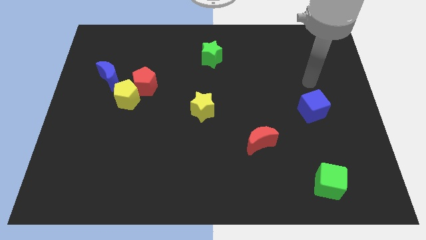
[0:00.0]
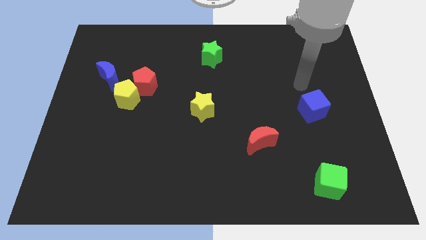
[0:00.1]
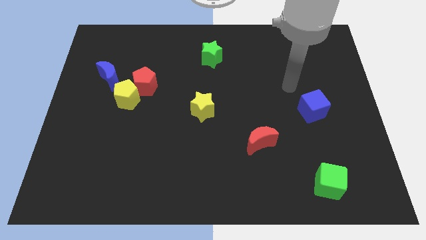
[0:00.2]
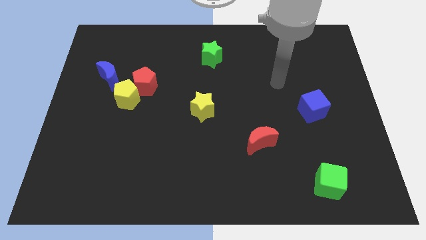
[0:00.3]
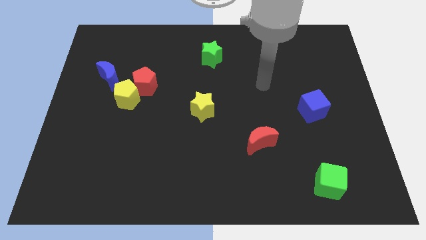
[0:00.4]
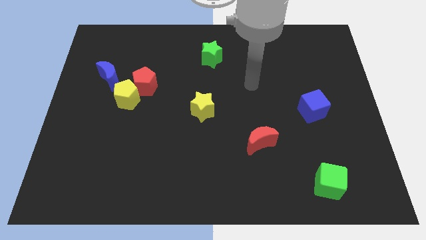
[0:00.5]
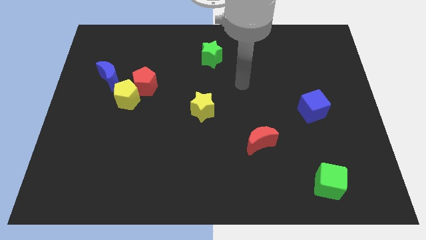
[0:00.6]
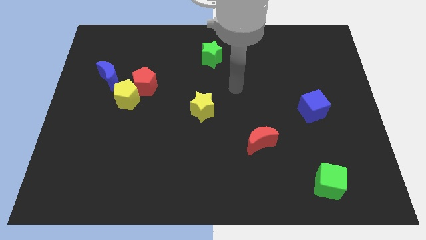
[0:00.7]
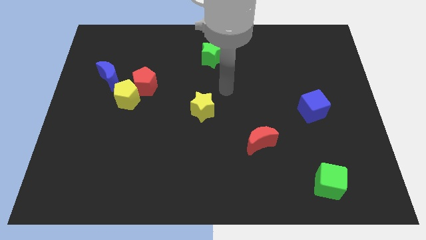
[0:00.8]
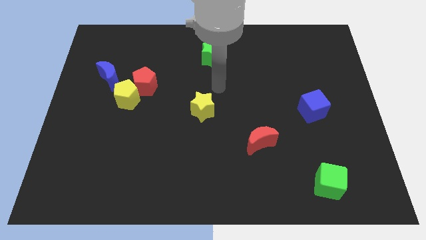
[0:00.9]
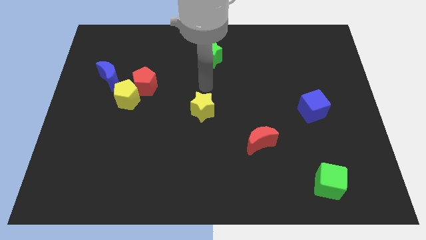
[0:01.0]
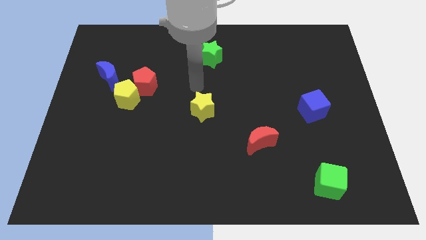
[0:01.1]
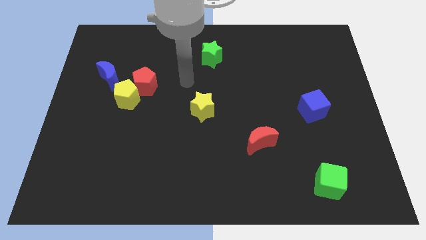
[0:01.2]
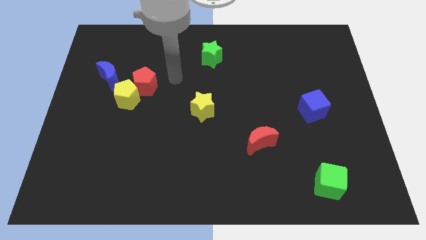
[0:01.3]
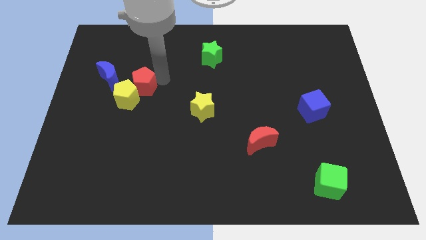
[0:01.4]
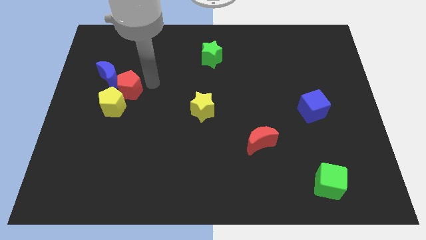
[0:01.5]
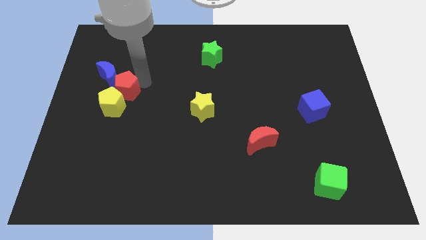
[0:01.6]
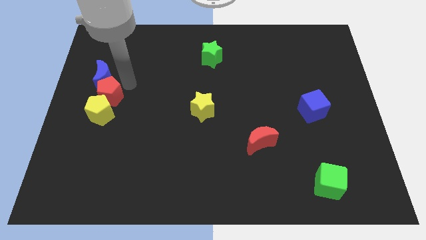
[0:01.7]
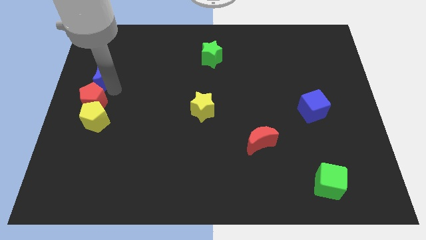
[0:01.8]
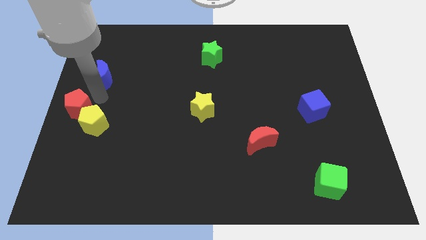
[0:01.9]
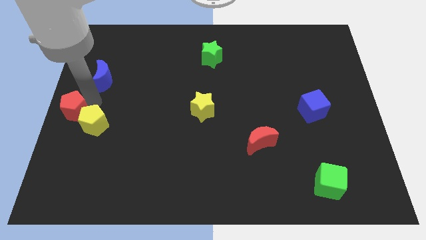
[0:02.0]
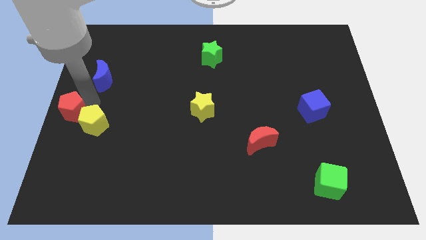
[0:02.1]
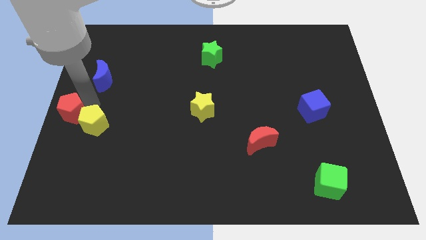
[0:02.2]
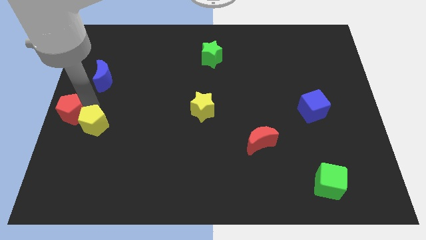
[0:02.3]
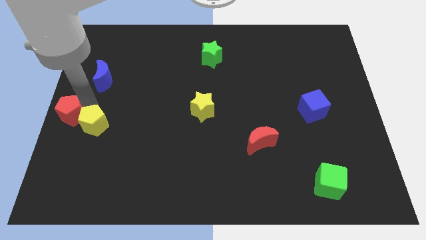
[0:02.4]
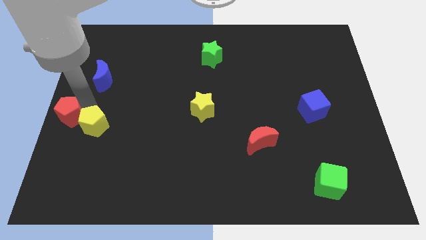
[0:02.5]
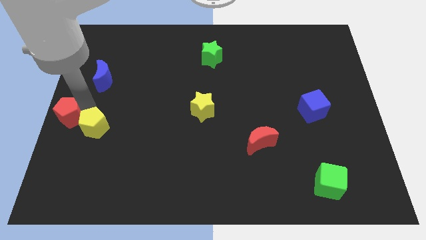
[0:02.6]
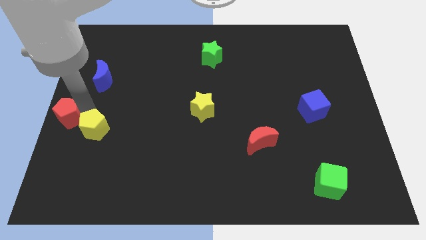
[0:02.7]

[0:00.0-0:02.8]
separate the yellow pentagon from the red pentagon and blue moon

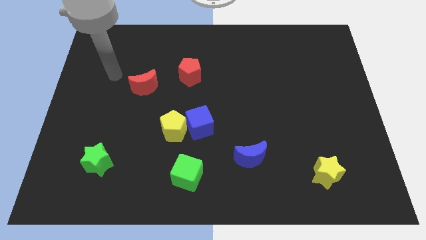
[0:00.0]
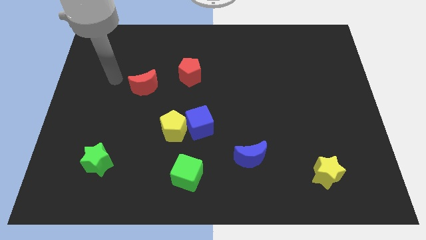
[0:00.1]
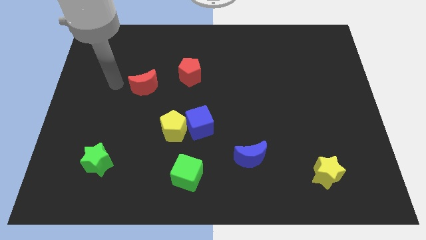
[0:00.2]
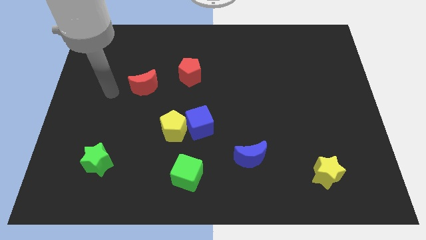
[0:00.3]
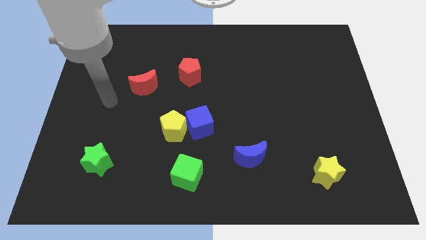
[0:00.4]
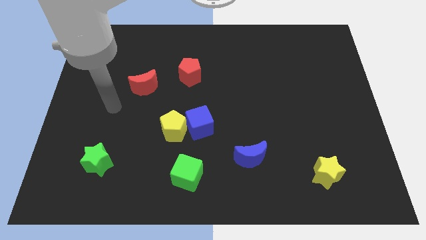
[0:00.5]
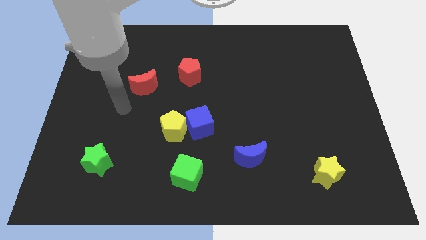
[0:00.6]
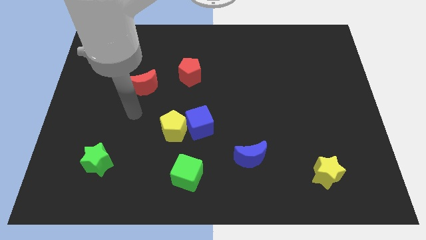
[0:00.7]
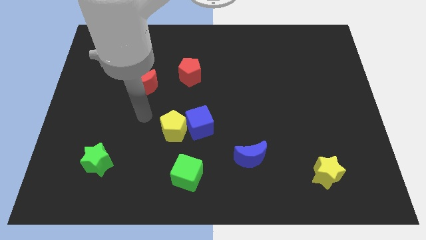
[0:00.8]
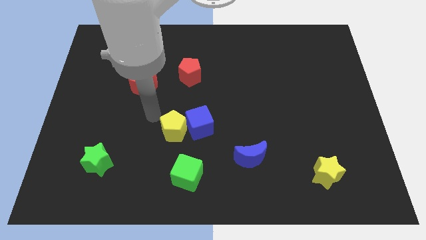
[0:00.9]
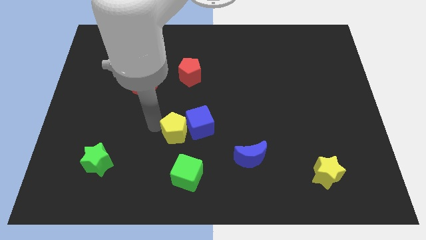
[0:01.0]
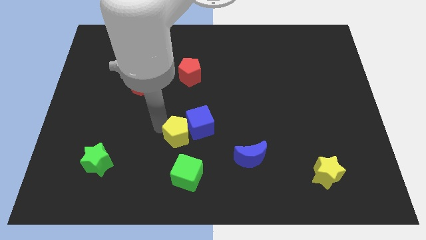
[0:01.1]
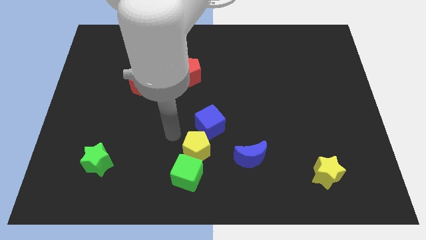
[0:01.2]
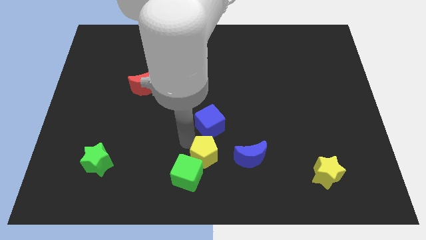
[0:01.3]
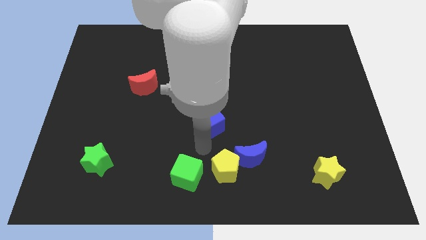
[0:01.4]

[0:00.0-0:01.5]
move the blue cube away from the yellow pentagon

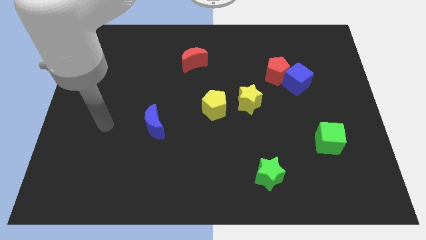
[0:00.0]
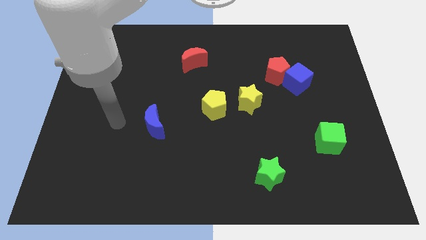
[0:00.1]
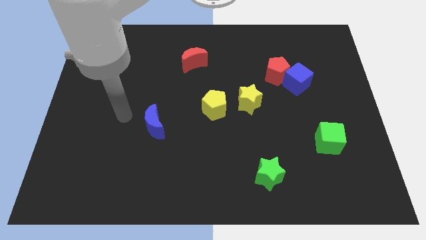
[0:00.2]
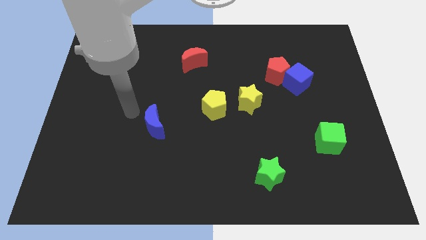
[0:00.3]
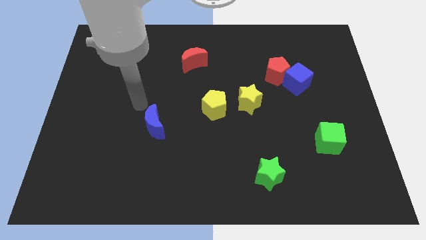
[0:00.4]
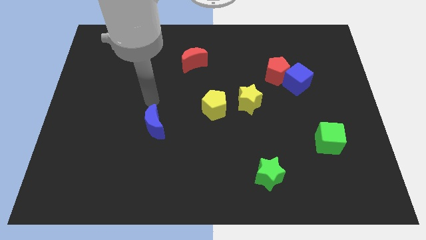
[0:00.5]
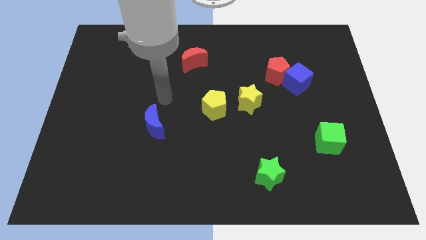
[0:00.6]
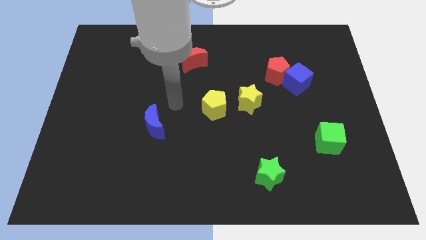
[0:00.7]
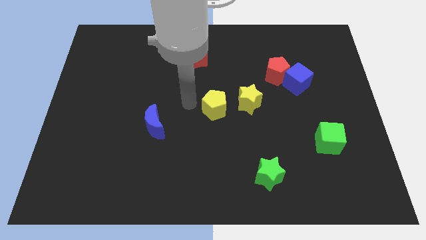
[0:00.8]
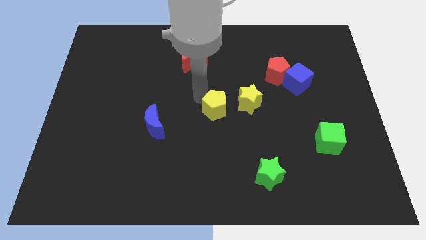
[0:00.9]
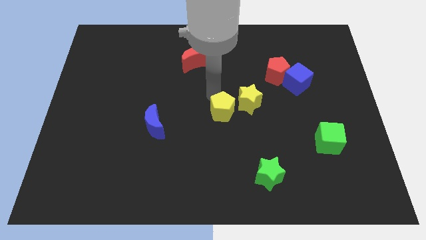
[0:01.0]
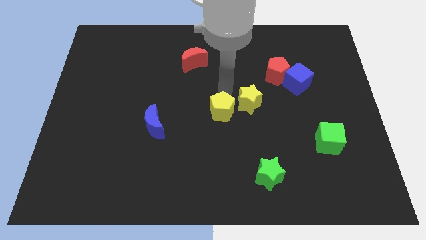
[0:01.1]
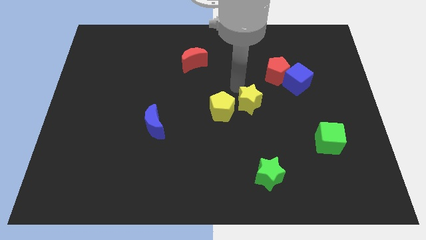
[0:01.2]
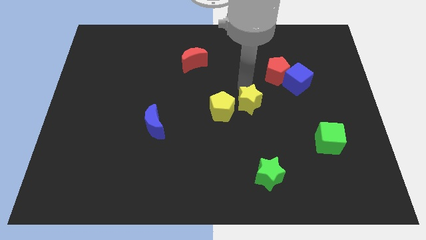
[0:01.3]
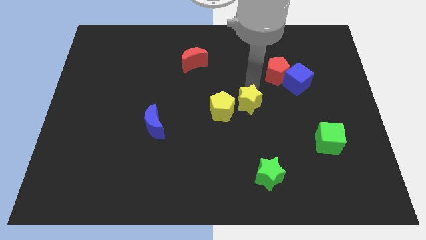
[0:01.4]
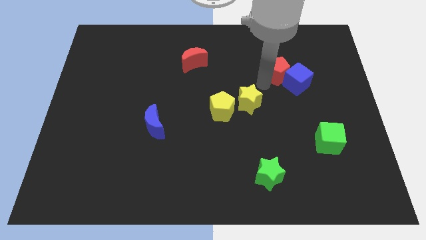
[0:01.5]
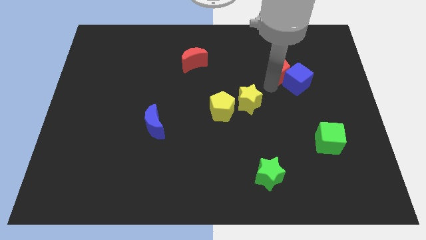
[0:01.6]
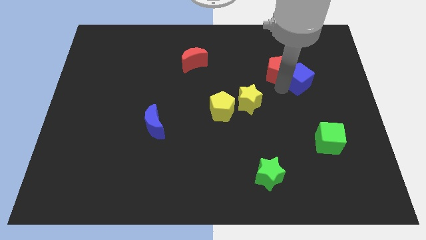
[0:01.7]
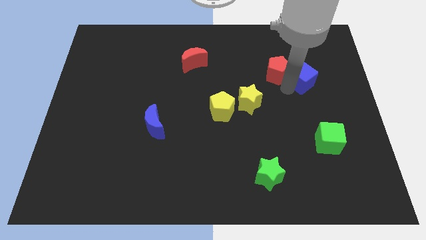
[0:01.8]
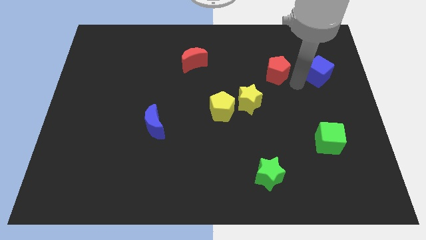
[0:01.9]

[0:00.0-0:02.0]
separate the red pentagon from the blue cube

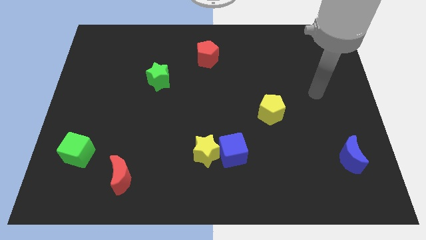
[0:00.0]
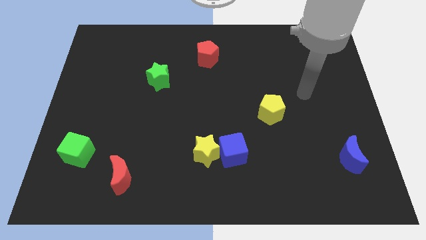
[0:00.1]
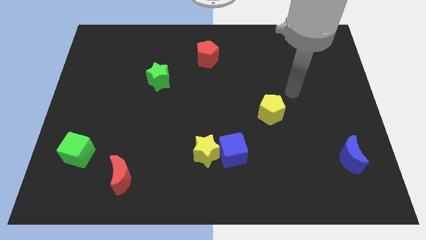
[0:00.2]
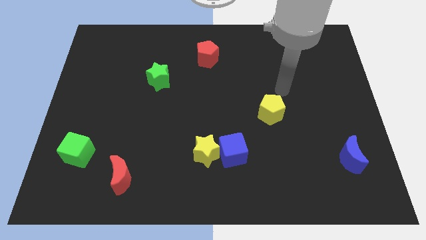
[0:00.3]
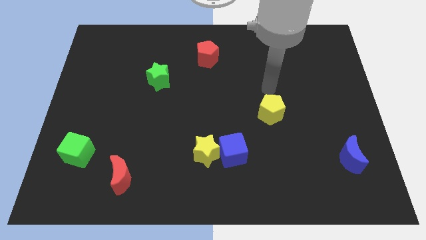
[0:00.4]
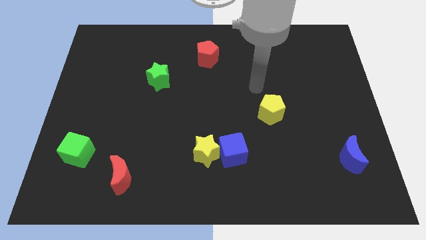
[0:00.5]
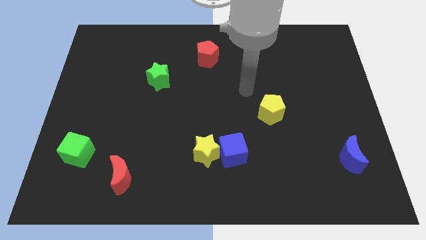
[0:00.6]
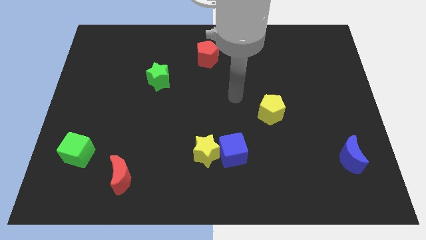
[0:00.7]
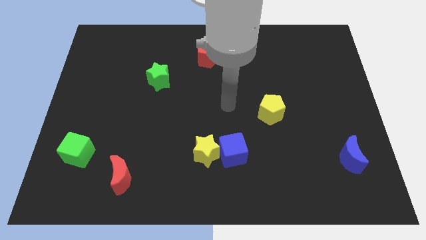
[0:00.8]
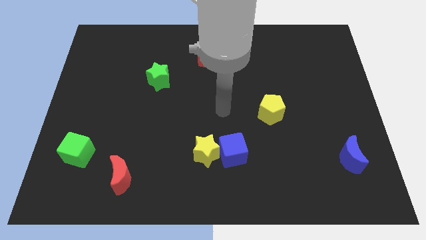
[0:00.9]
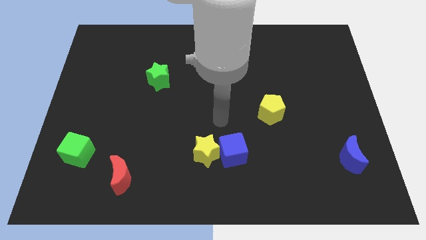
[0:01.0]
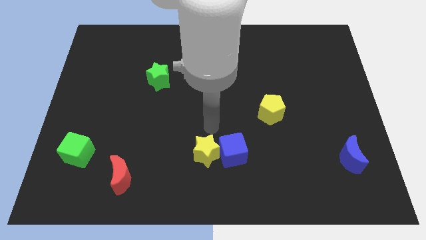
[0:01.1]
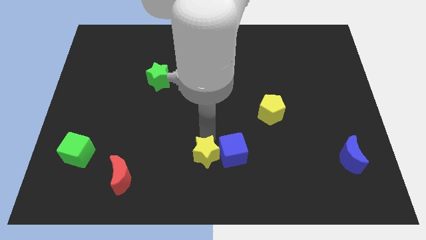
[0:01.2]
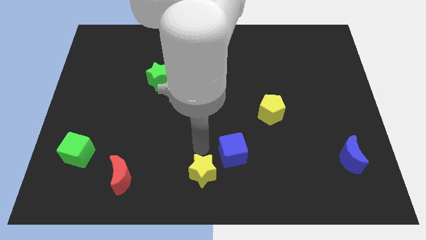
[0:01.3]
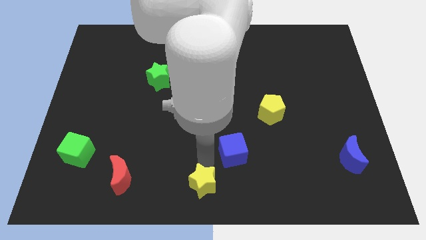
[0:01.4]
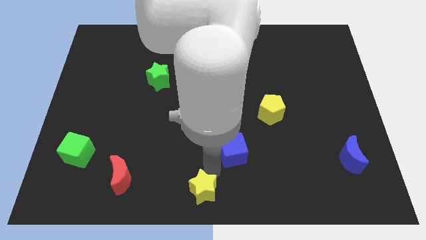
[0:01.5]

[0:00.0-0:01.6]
move the blue cube away from the yellow star

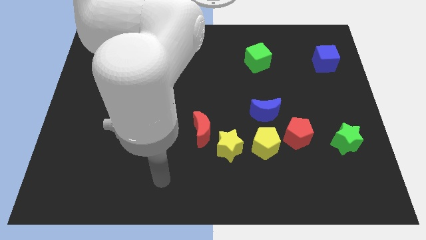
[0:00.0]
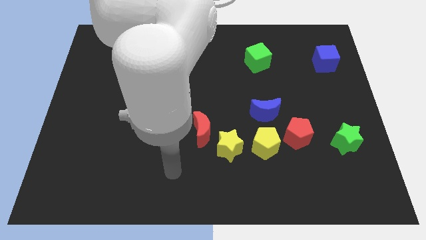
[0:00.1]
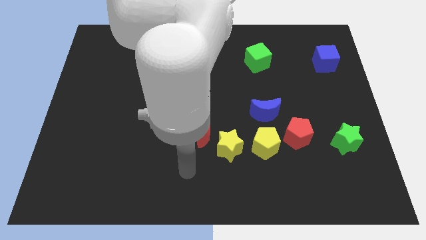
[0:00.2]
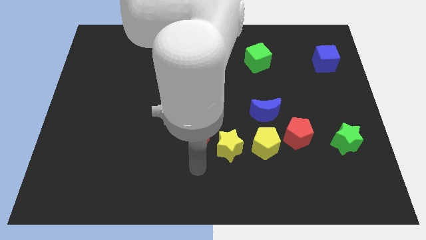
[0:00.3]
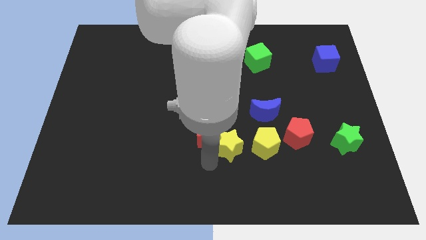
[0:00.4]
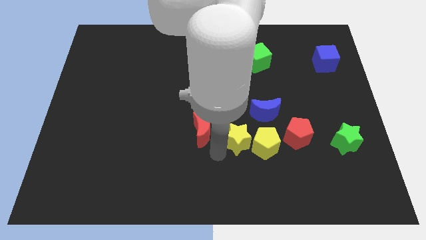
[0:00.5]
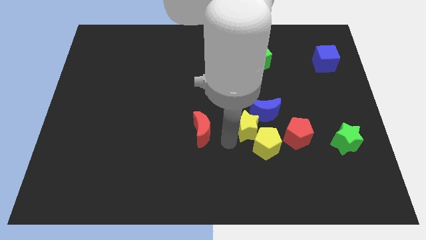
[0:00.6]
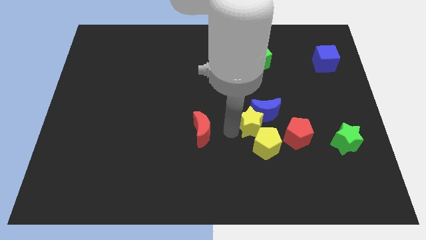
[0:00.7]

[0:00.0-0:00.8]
pull the red moon apart from the yellow star

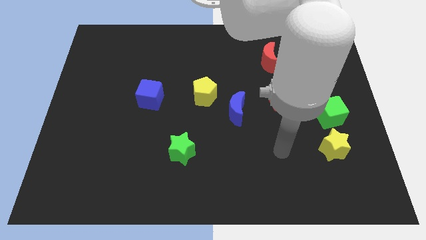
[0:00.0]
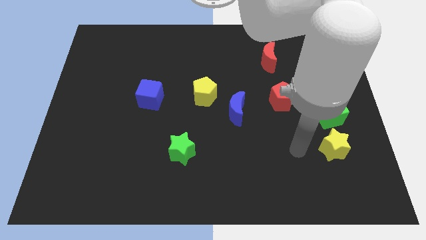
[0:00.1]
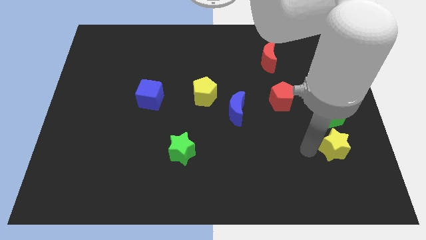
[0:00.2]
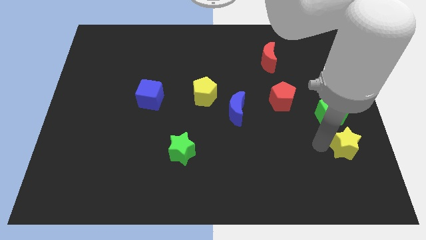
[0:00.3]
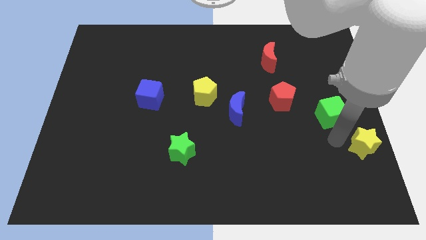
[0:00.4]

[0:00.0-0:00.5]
move the green cube away from the yellow star

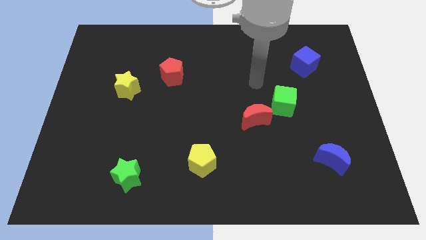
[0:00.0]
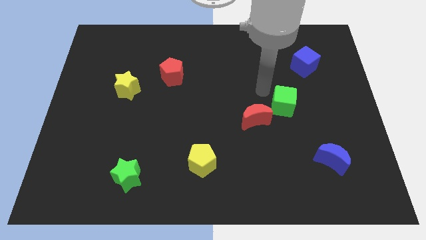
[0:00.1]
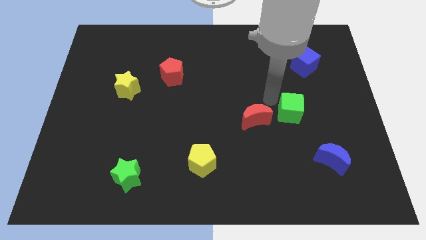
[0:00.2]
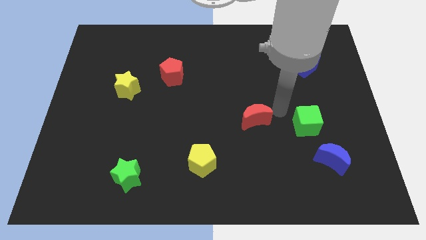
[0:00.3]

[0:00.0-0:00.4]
pull the red moon apart from the green cube
